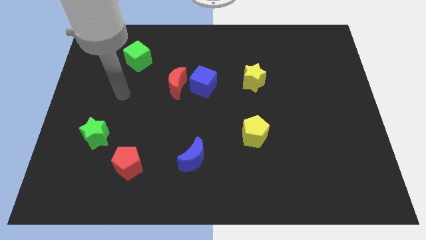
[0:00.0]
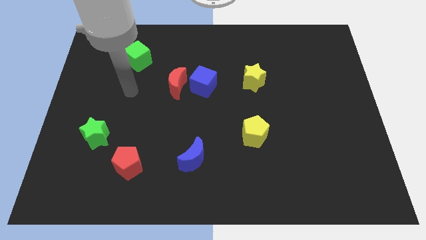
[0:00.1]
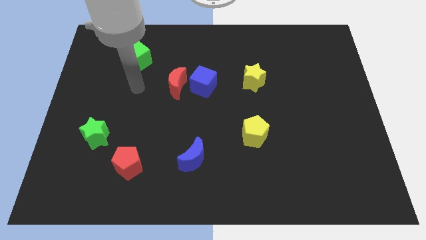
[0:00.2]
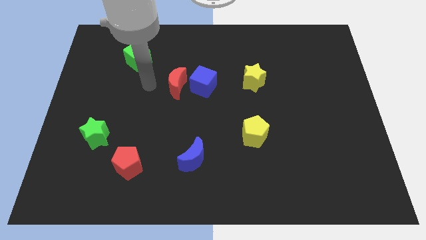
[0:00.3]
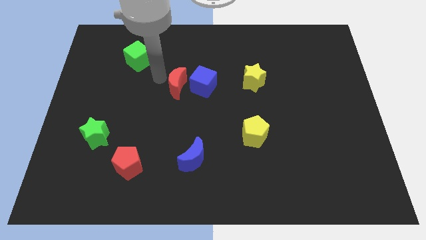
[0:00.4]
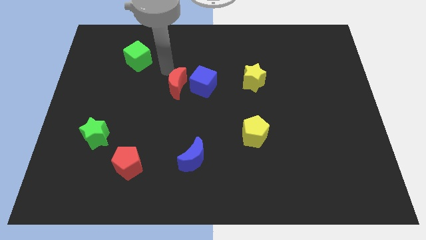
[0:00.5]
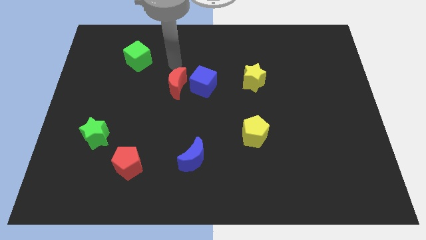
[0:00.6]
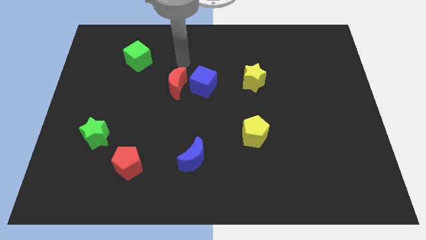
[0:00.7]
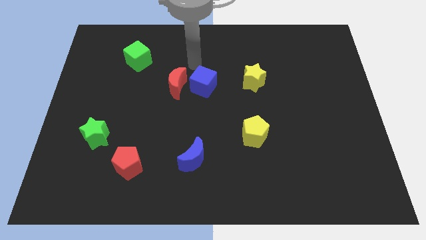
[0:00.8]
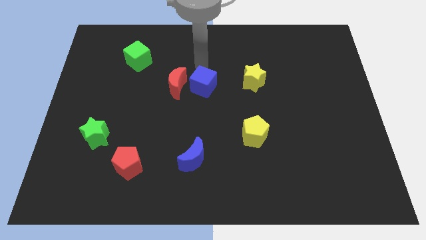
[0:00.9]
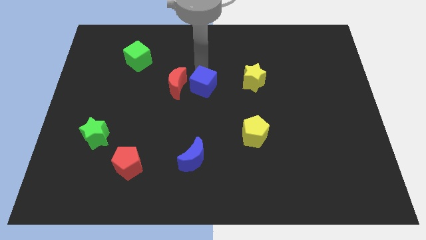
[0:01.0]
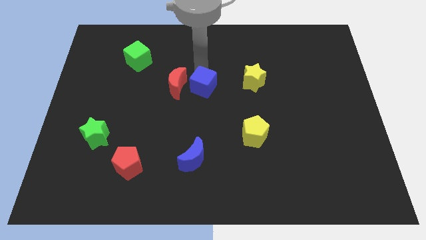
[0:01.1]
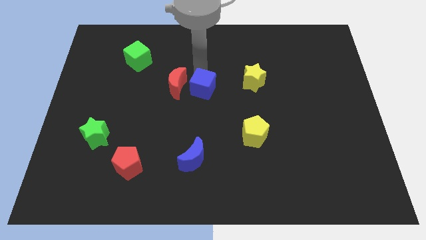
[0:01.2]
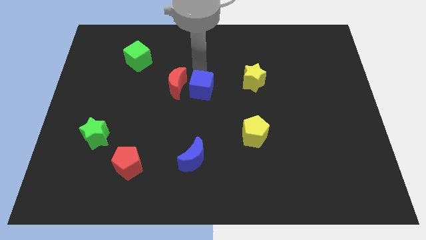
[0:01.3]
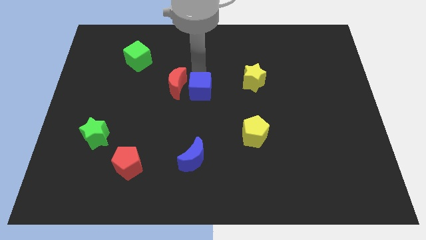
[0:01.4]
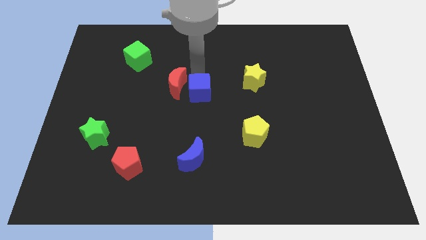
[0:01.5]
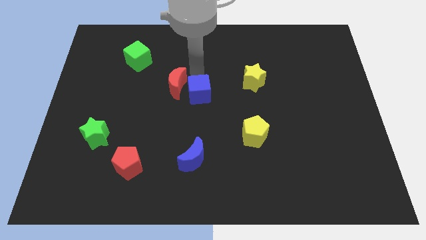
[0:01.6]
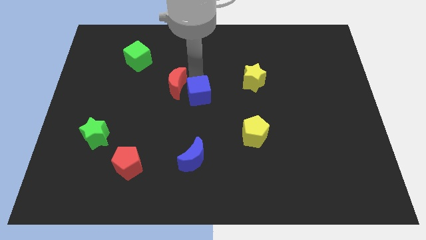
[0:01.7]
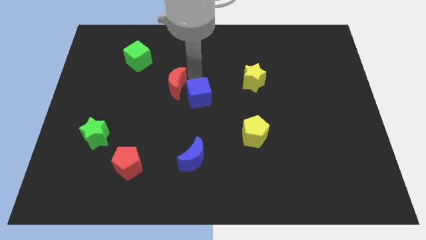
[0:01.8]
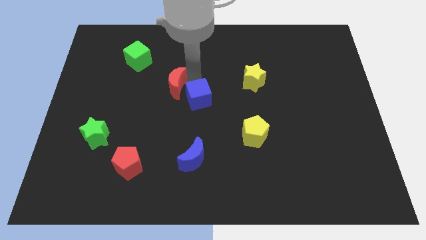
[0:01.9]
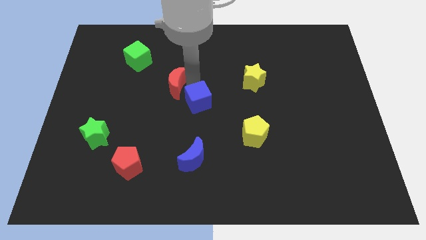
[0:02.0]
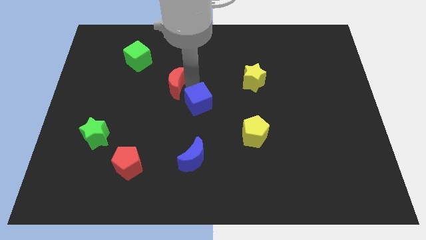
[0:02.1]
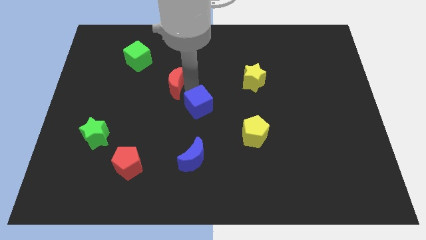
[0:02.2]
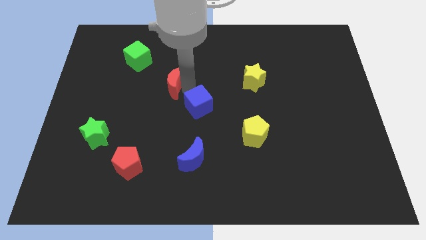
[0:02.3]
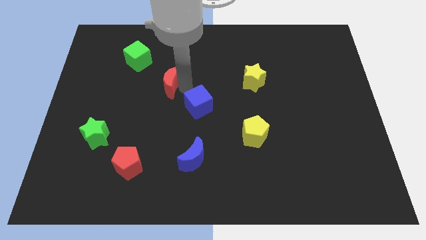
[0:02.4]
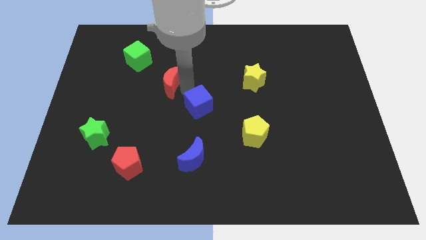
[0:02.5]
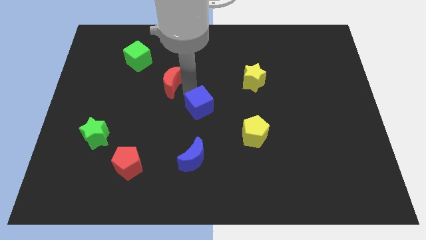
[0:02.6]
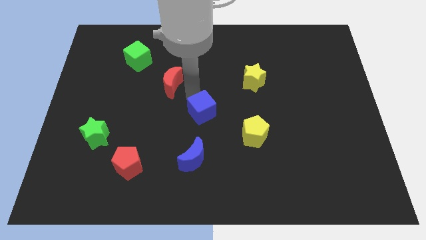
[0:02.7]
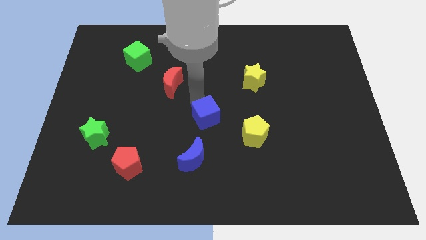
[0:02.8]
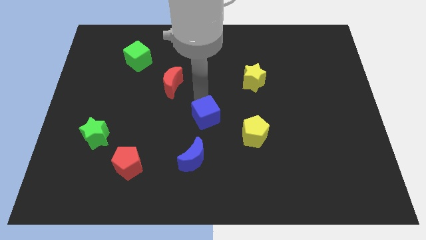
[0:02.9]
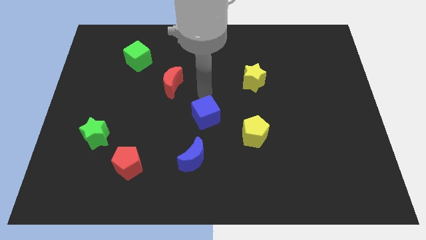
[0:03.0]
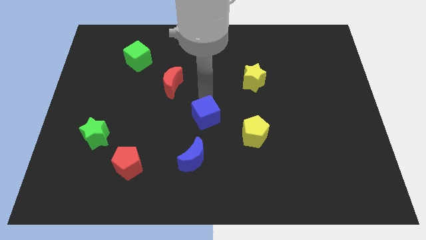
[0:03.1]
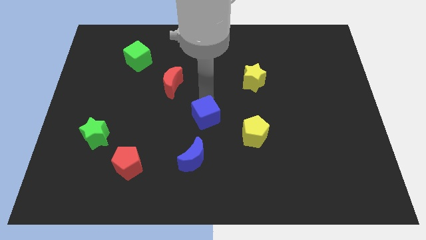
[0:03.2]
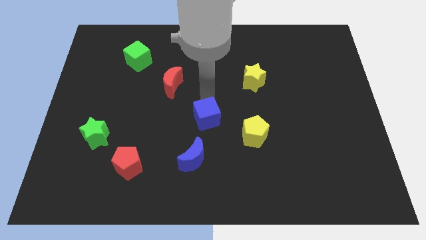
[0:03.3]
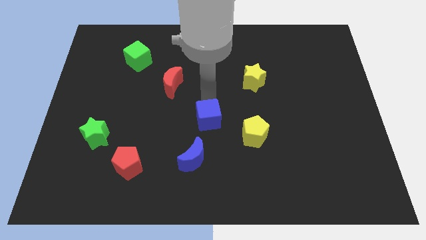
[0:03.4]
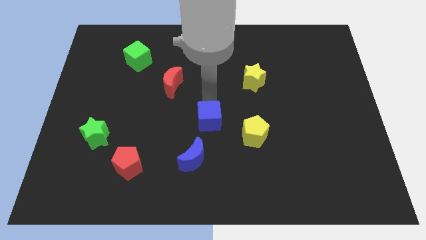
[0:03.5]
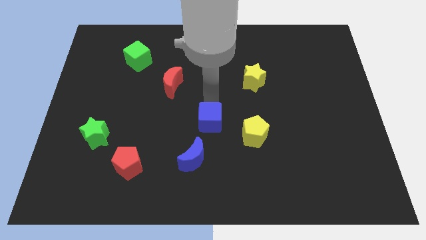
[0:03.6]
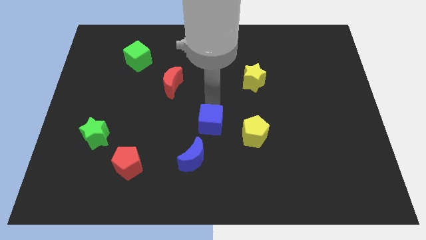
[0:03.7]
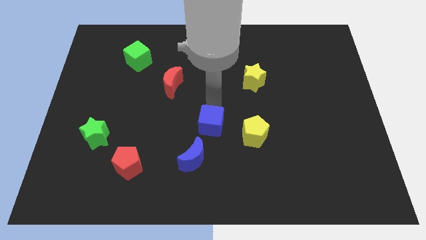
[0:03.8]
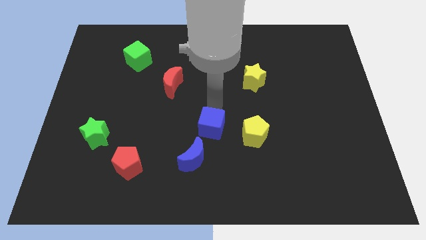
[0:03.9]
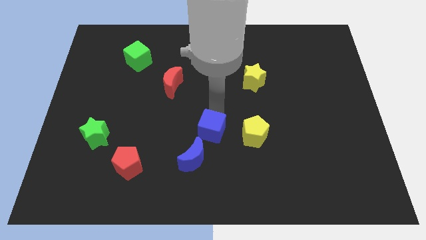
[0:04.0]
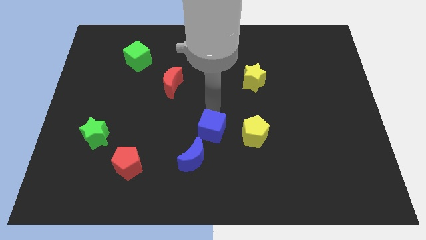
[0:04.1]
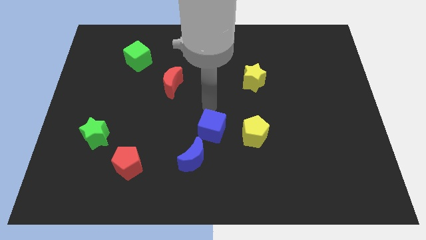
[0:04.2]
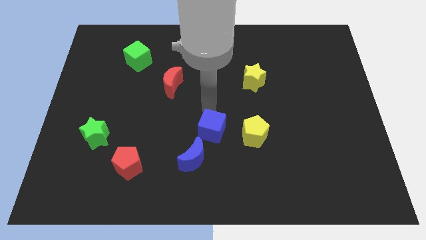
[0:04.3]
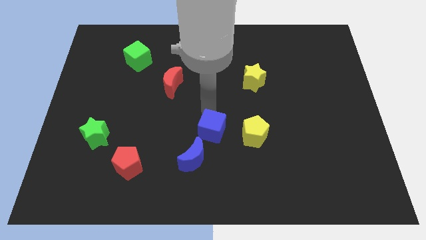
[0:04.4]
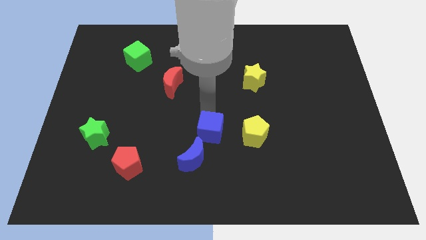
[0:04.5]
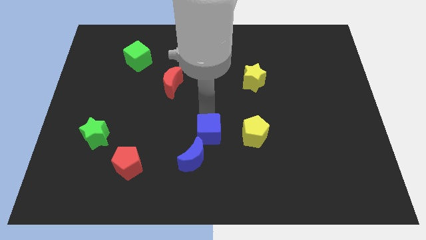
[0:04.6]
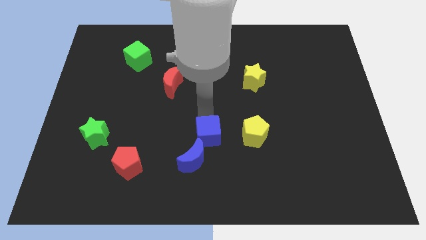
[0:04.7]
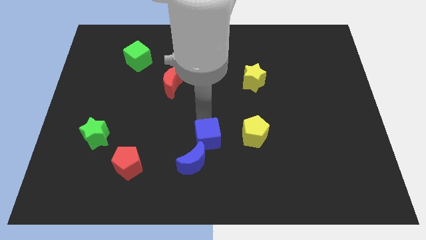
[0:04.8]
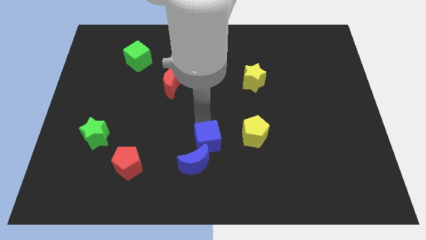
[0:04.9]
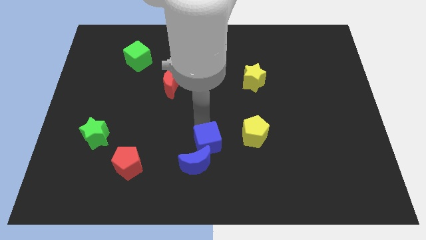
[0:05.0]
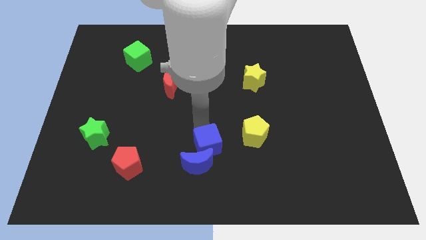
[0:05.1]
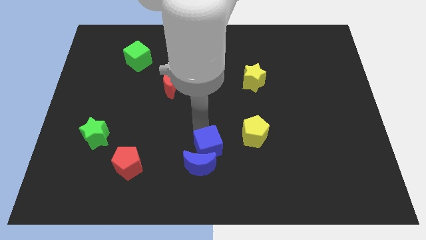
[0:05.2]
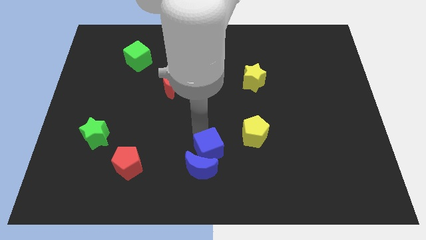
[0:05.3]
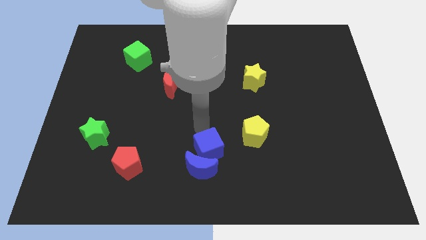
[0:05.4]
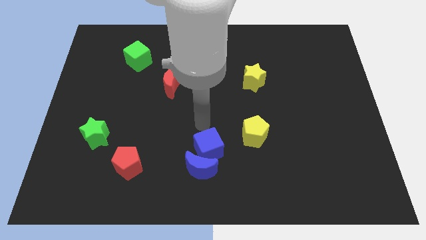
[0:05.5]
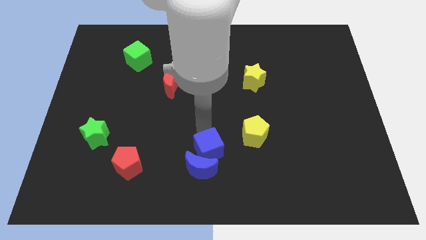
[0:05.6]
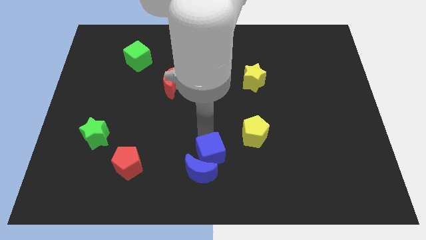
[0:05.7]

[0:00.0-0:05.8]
put the blue cube to the bottom
